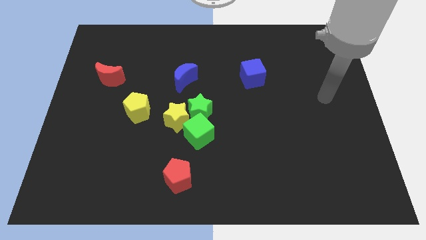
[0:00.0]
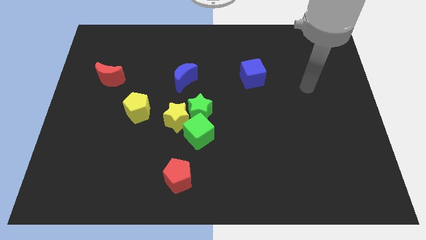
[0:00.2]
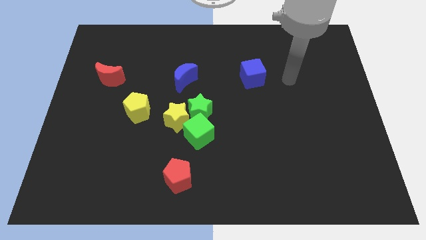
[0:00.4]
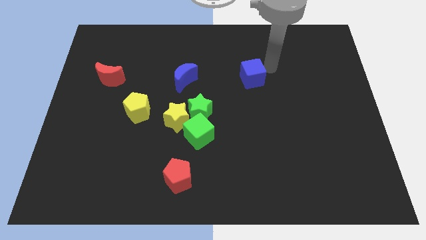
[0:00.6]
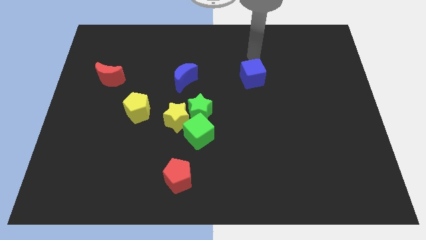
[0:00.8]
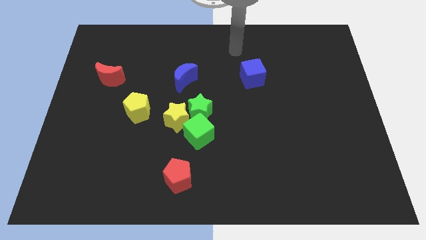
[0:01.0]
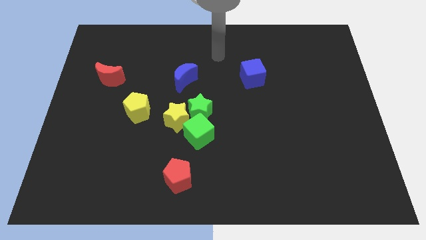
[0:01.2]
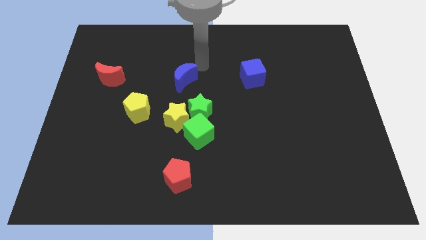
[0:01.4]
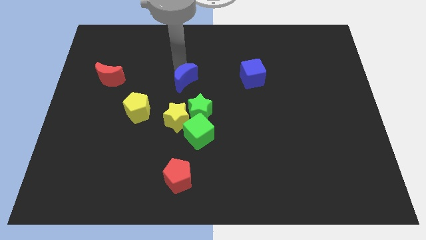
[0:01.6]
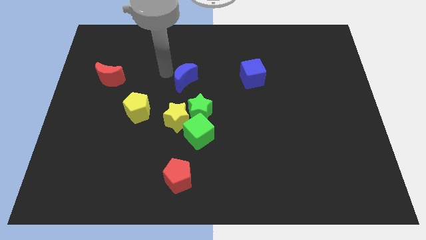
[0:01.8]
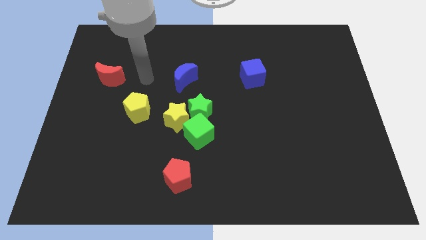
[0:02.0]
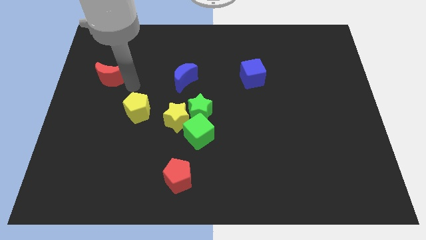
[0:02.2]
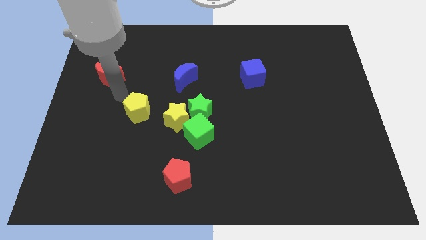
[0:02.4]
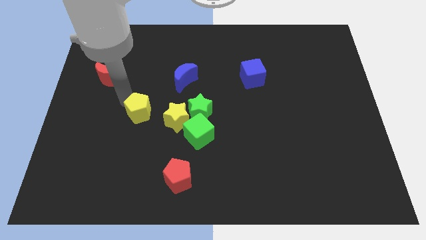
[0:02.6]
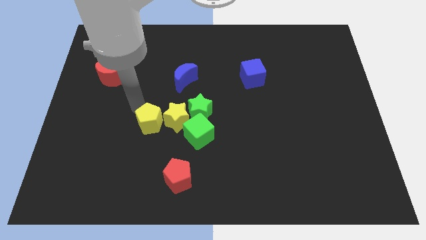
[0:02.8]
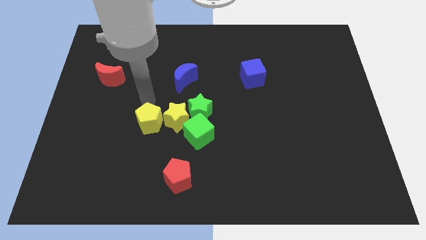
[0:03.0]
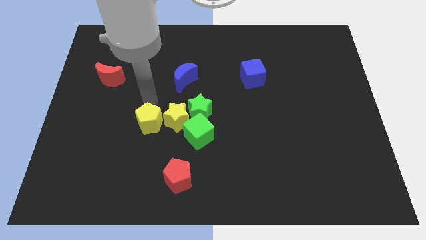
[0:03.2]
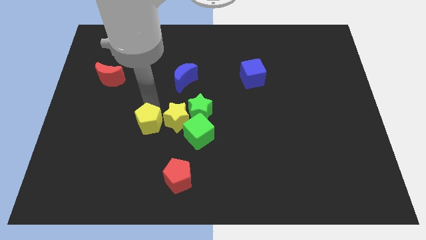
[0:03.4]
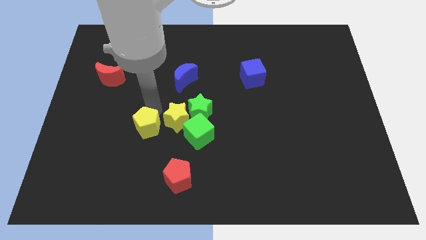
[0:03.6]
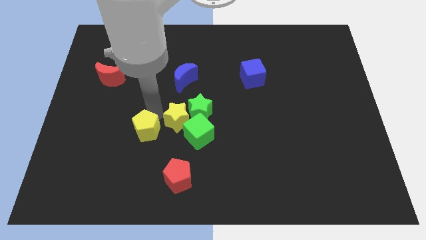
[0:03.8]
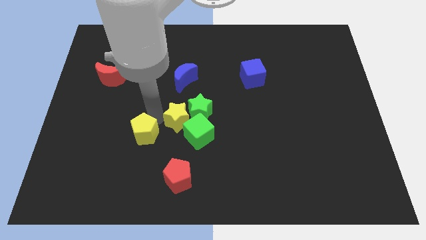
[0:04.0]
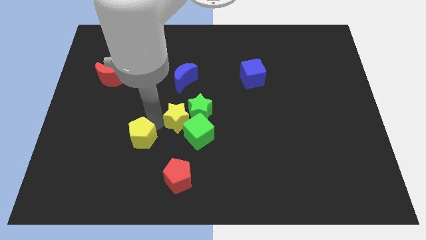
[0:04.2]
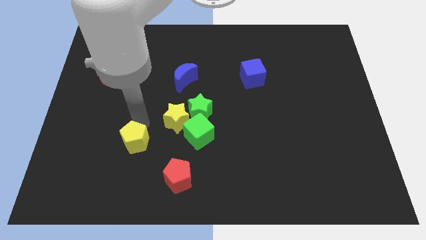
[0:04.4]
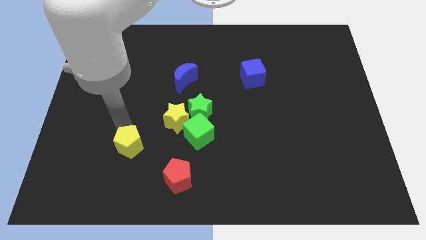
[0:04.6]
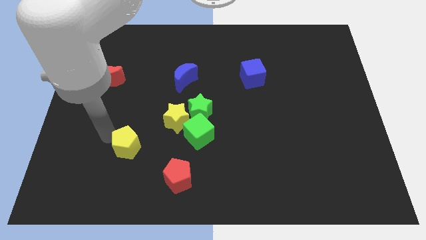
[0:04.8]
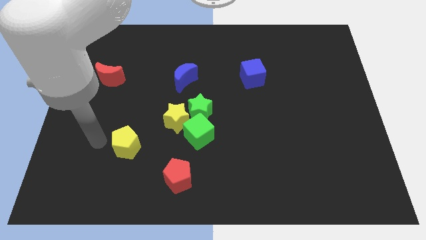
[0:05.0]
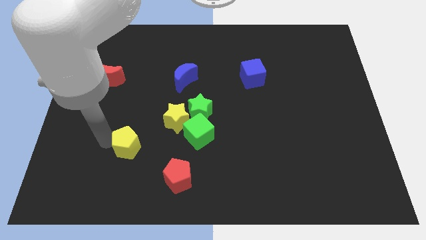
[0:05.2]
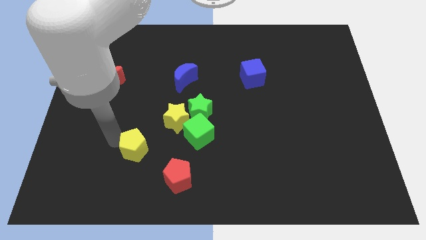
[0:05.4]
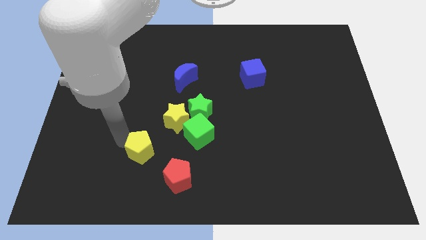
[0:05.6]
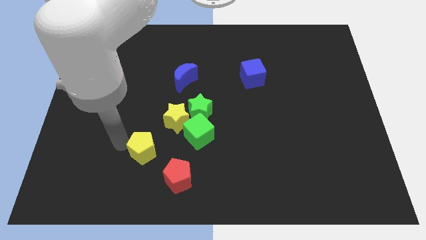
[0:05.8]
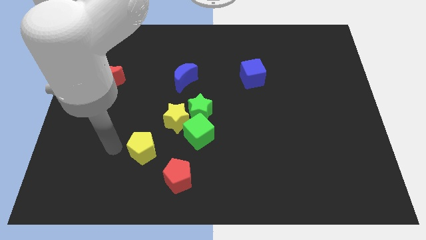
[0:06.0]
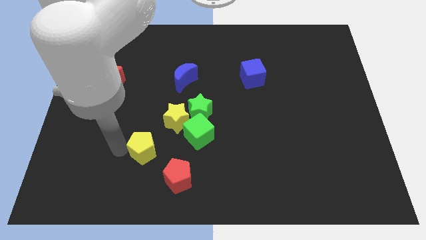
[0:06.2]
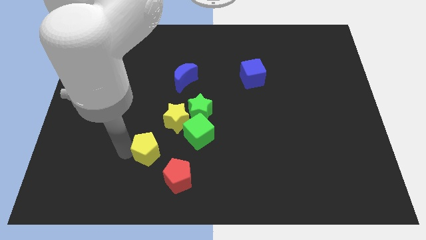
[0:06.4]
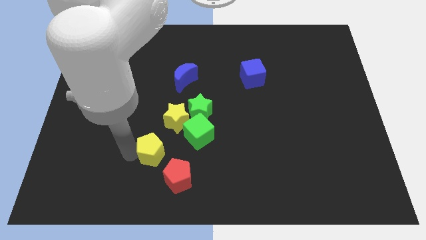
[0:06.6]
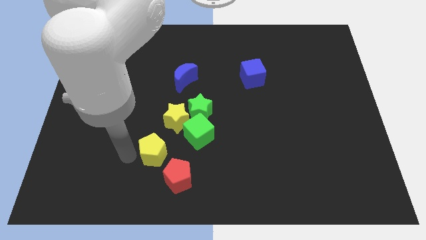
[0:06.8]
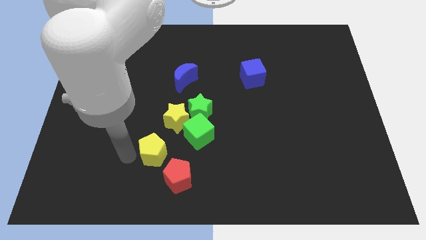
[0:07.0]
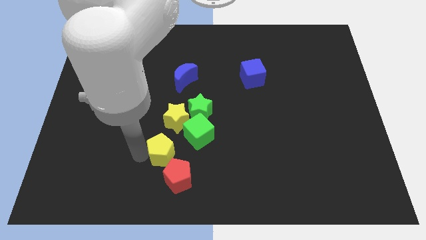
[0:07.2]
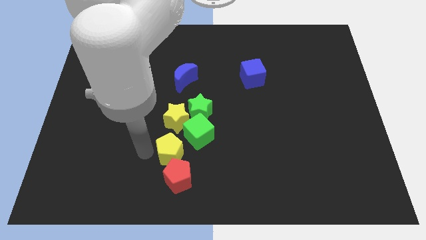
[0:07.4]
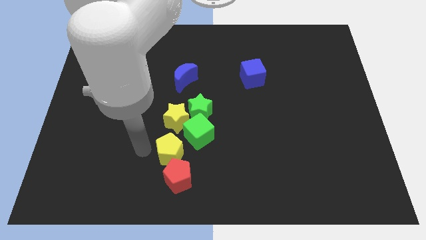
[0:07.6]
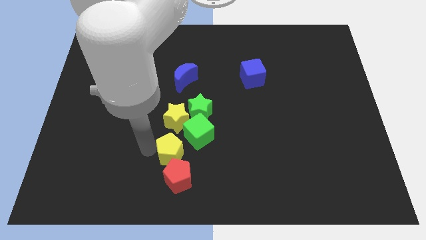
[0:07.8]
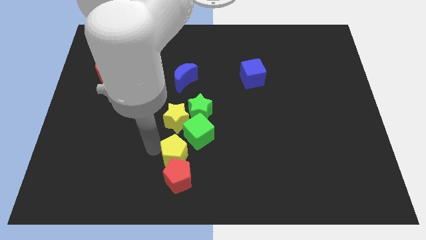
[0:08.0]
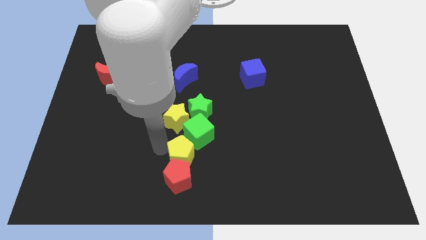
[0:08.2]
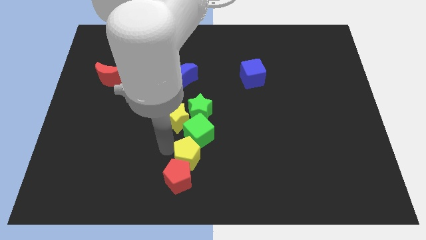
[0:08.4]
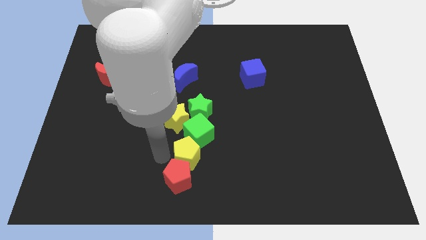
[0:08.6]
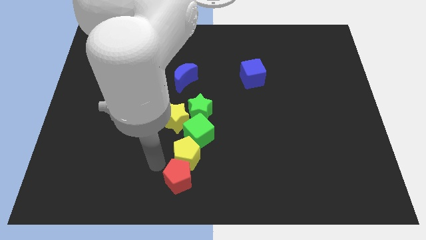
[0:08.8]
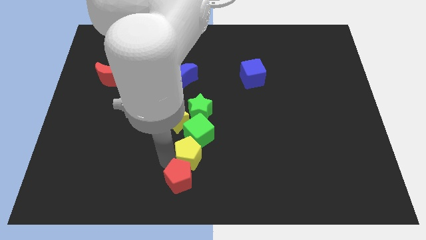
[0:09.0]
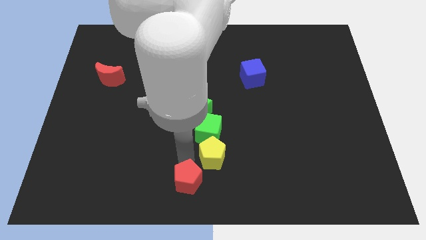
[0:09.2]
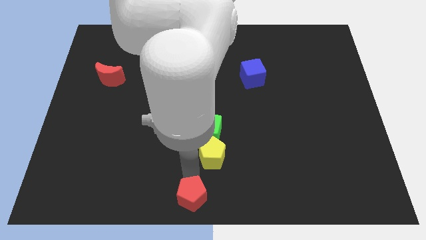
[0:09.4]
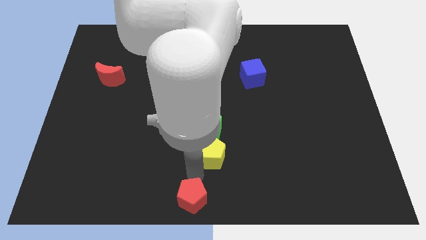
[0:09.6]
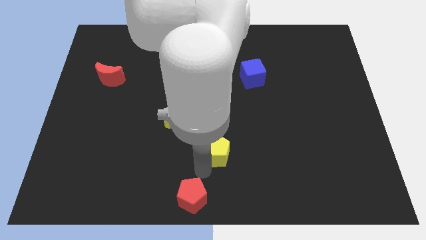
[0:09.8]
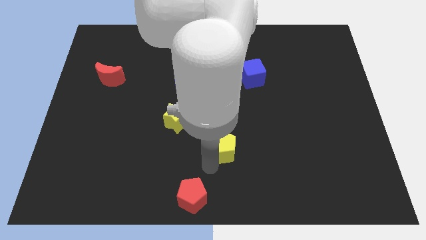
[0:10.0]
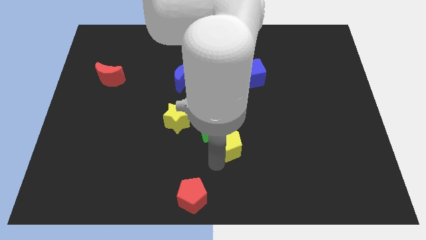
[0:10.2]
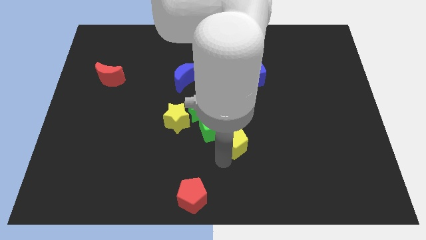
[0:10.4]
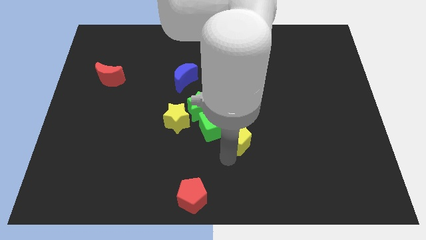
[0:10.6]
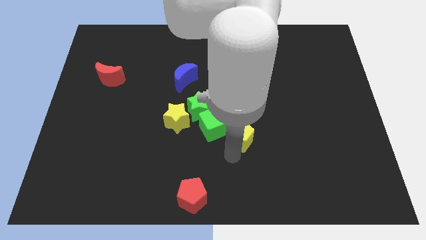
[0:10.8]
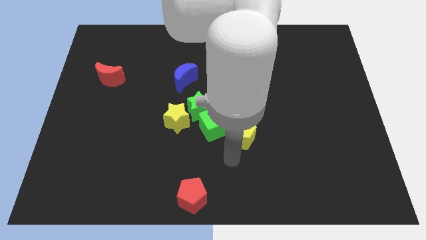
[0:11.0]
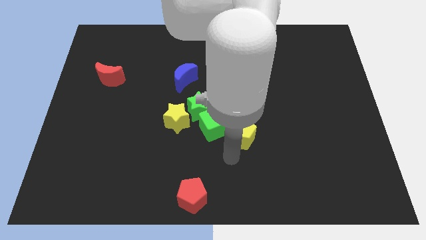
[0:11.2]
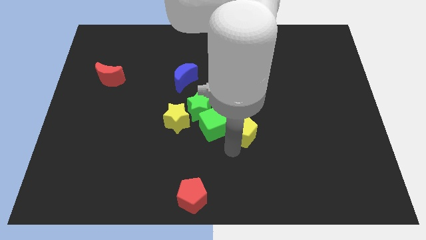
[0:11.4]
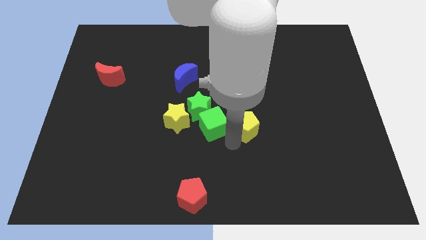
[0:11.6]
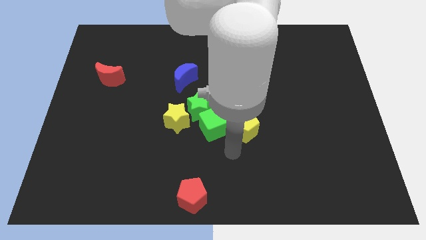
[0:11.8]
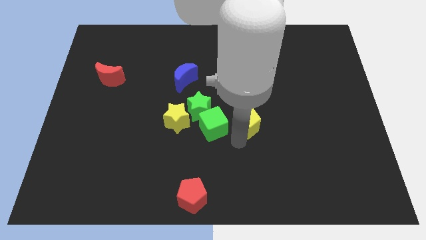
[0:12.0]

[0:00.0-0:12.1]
slide the yellow pentagon to the bottom of the blue cube

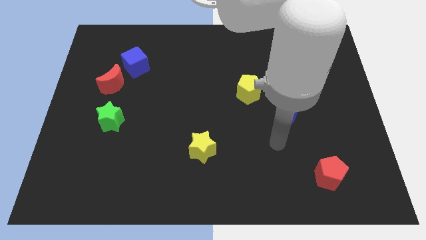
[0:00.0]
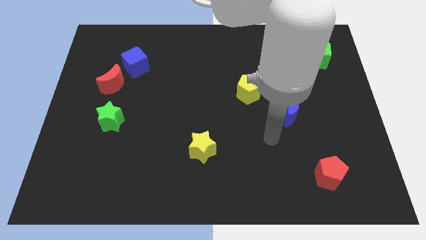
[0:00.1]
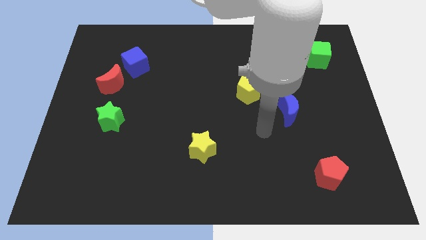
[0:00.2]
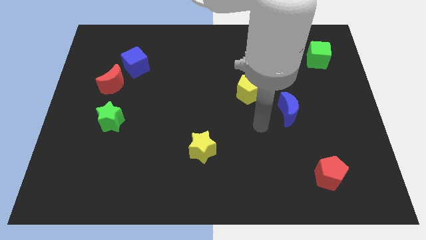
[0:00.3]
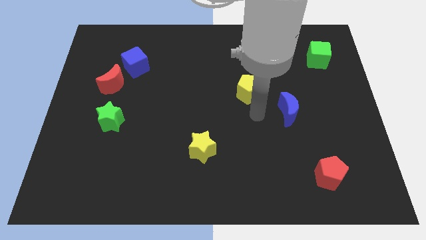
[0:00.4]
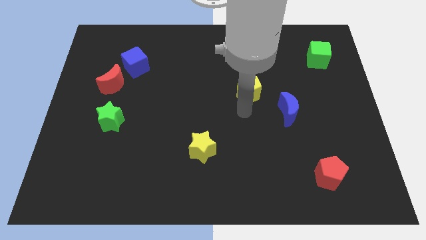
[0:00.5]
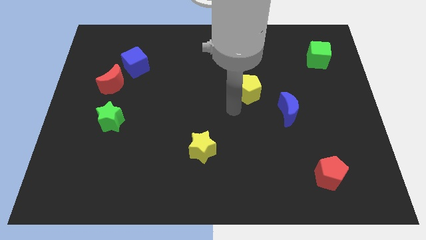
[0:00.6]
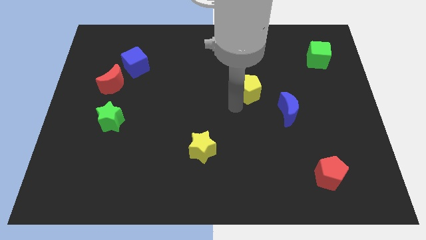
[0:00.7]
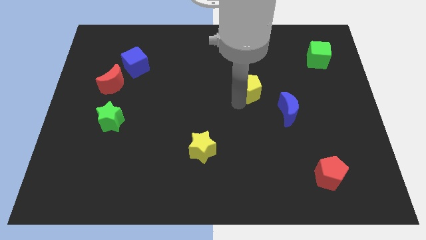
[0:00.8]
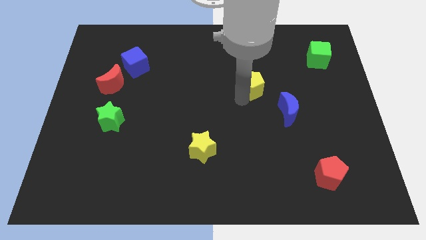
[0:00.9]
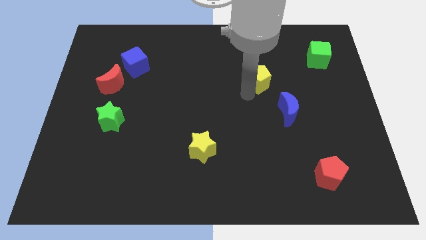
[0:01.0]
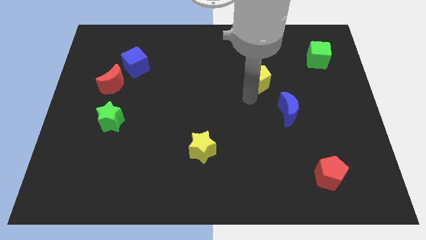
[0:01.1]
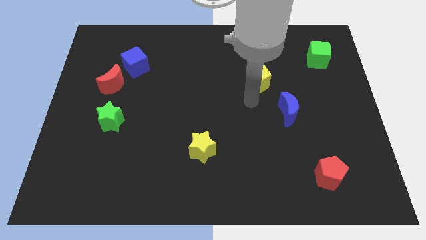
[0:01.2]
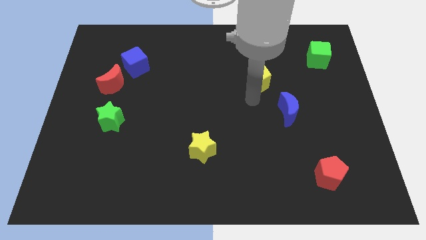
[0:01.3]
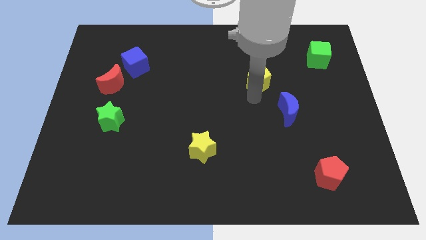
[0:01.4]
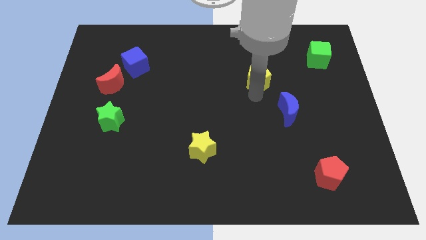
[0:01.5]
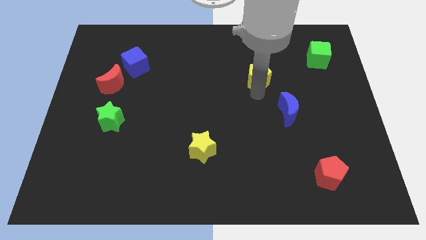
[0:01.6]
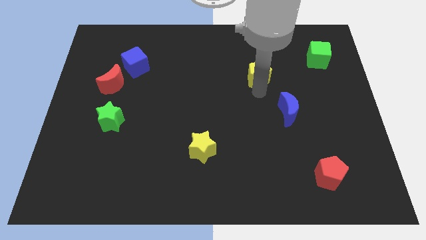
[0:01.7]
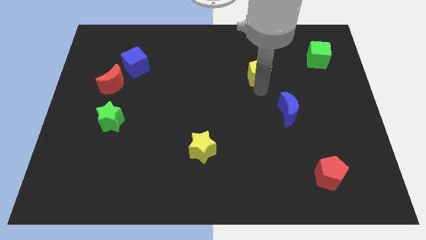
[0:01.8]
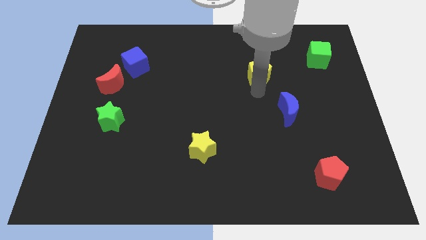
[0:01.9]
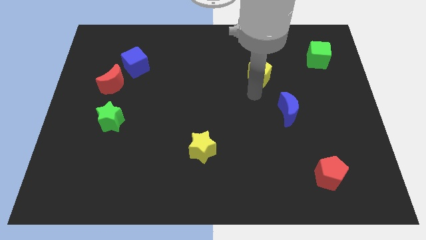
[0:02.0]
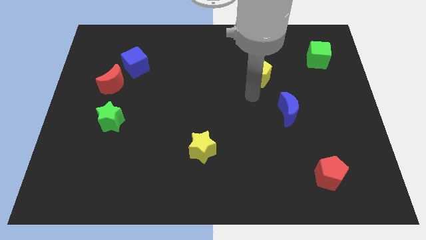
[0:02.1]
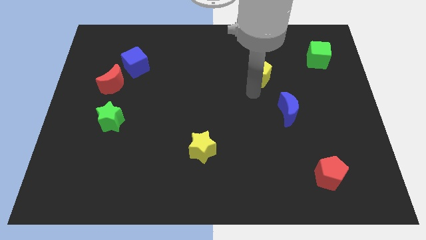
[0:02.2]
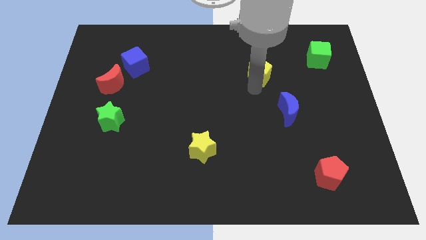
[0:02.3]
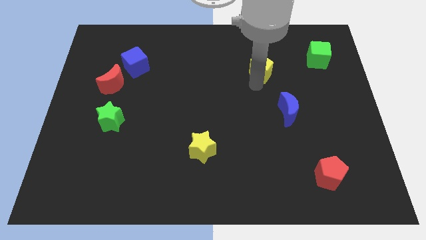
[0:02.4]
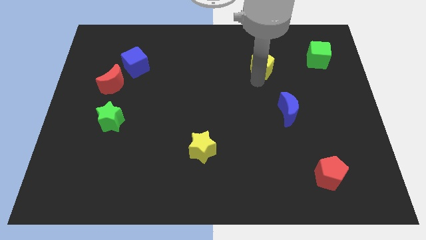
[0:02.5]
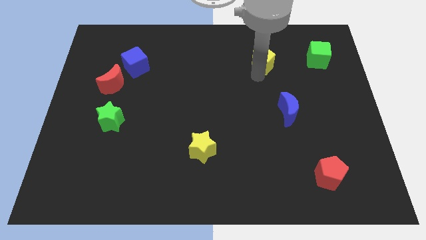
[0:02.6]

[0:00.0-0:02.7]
move the yellow pentagon to the left side of the green cube
